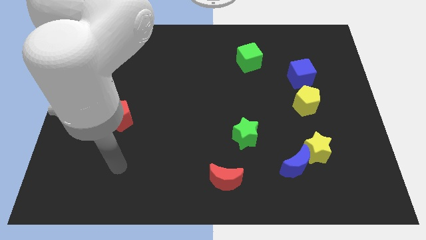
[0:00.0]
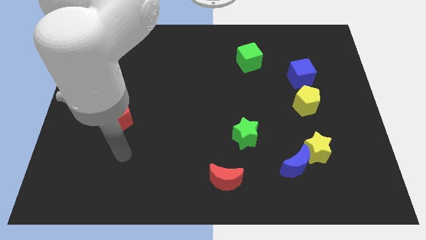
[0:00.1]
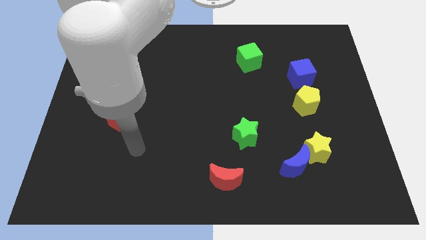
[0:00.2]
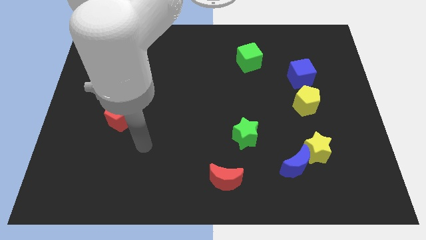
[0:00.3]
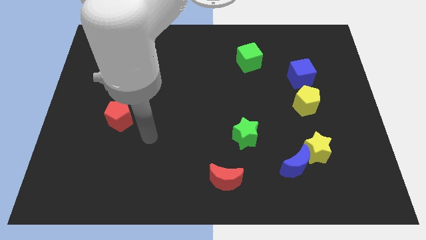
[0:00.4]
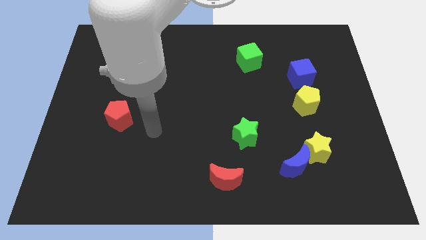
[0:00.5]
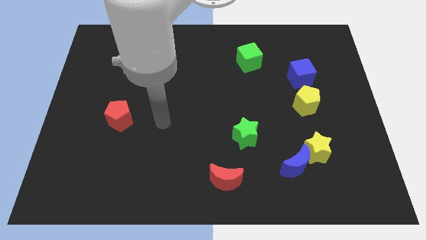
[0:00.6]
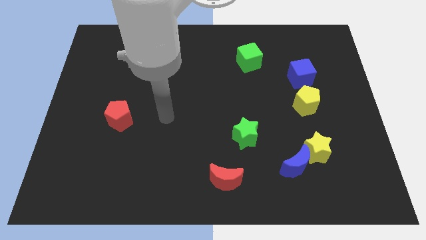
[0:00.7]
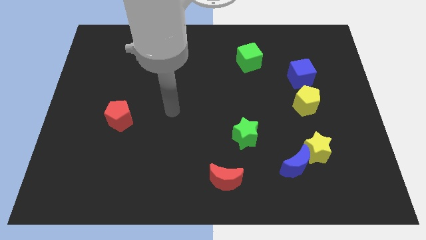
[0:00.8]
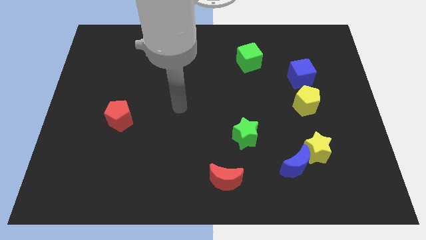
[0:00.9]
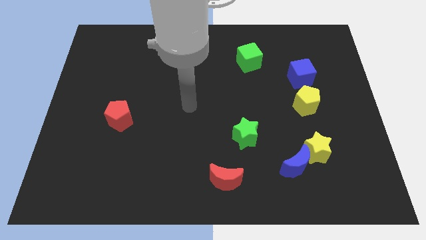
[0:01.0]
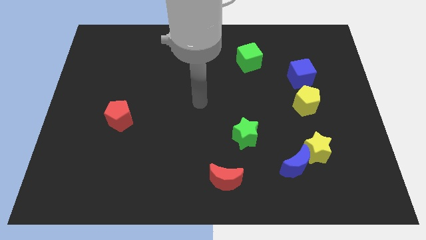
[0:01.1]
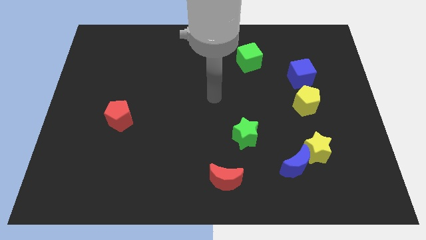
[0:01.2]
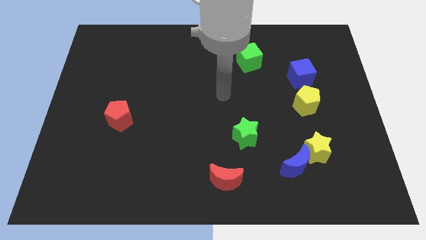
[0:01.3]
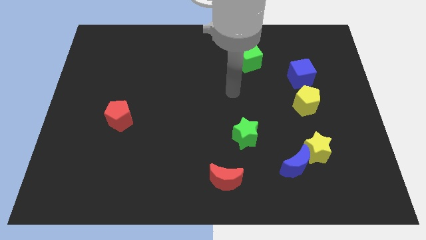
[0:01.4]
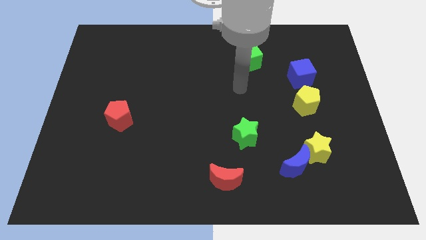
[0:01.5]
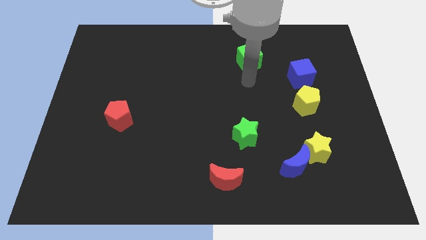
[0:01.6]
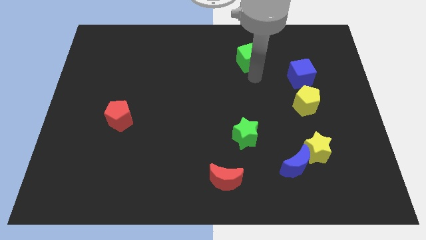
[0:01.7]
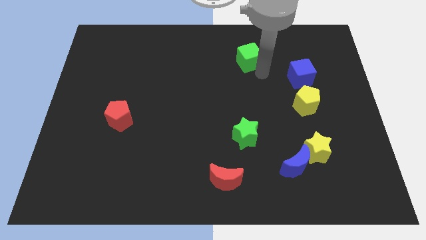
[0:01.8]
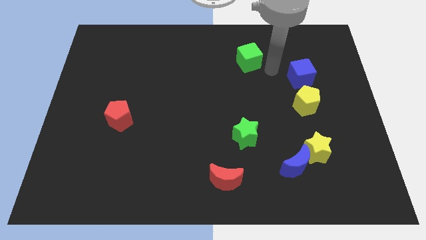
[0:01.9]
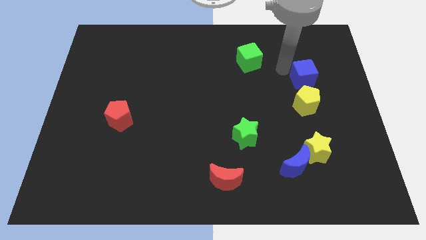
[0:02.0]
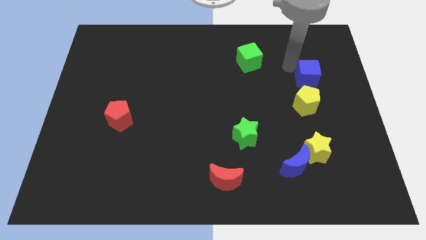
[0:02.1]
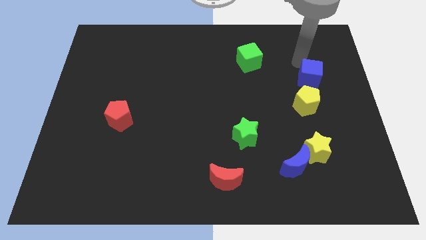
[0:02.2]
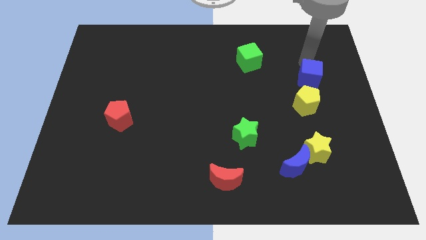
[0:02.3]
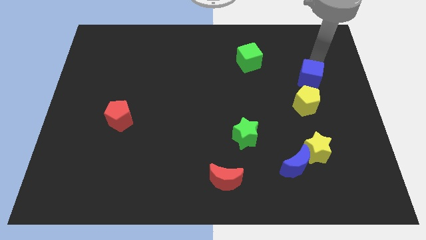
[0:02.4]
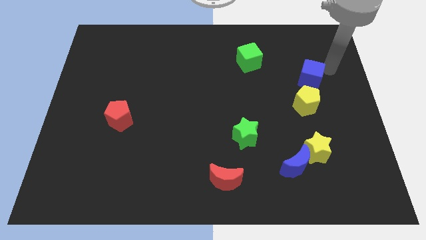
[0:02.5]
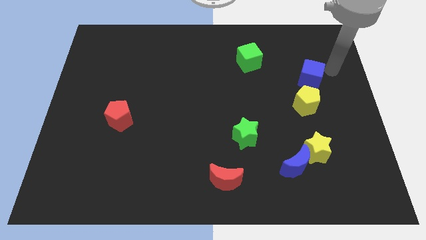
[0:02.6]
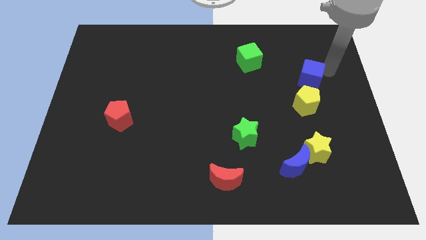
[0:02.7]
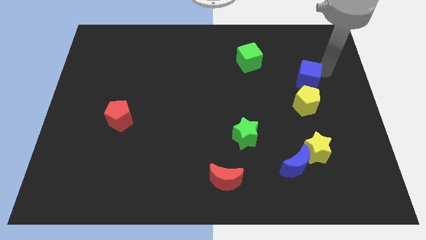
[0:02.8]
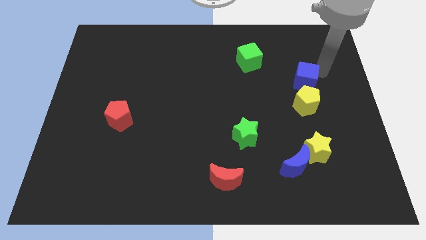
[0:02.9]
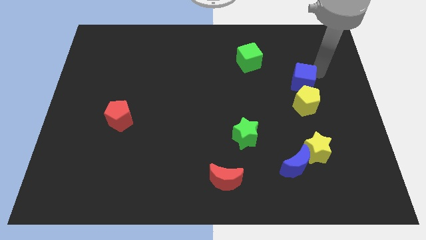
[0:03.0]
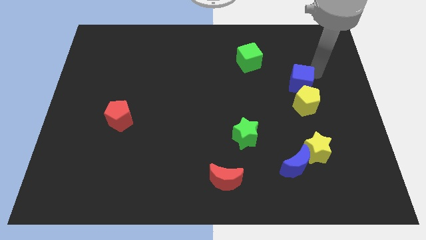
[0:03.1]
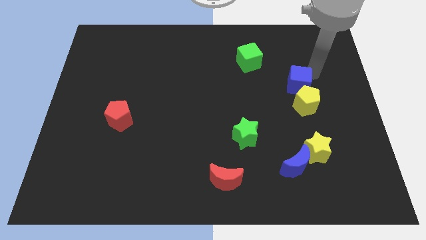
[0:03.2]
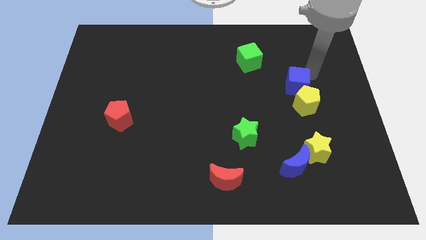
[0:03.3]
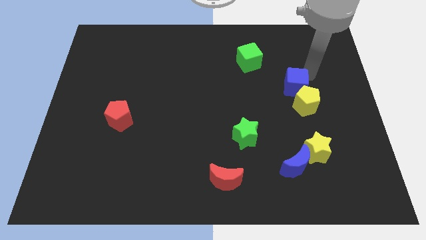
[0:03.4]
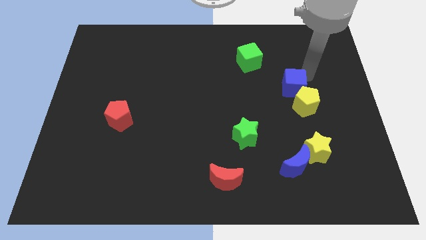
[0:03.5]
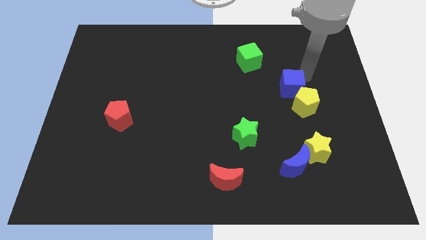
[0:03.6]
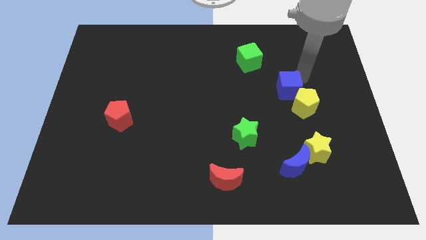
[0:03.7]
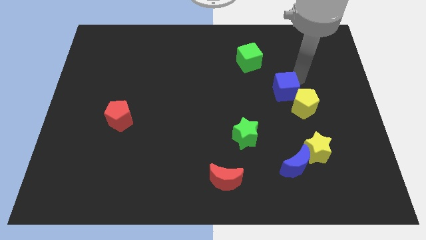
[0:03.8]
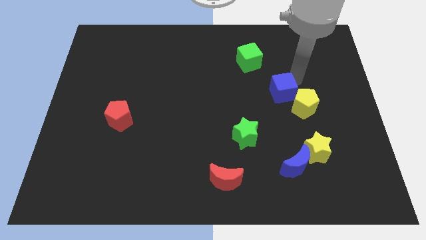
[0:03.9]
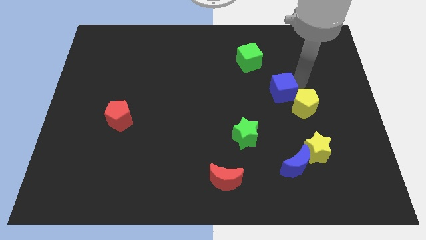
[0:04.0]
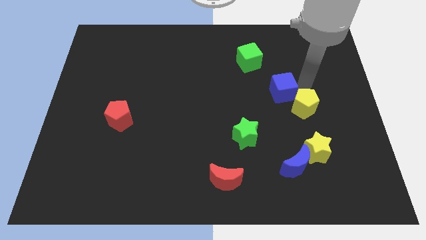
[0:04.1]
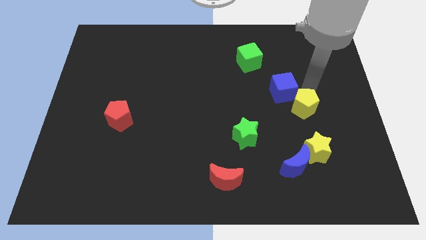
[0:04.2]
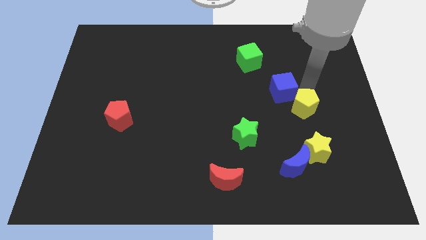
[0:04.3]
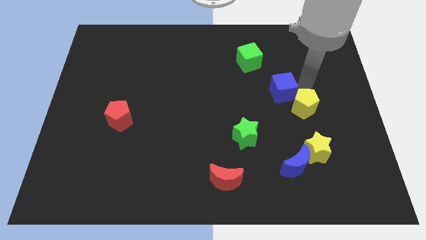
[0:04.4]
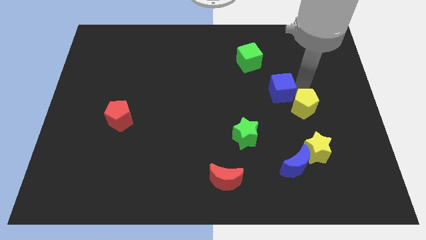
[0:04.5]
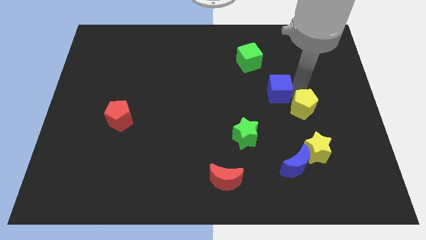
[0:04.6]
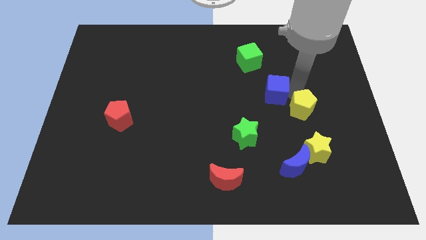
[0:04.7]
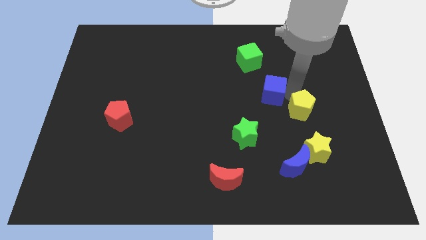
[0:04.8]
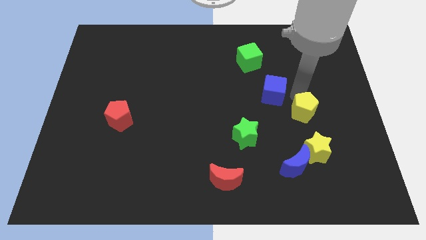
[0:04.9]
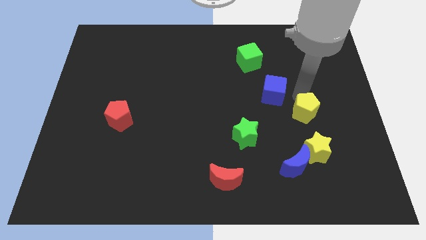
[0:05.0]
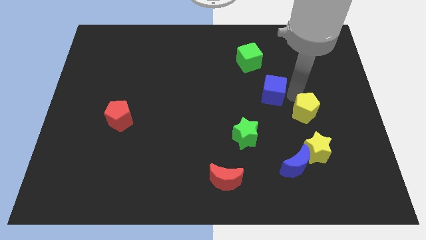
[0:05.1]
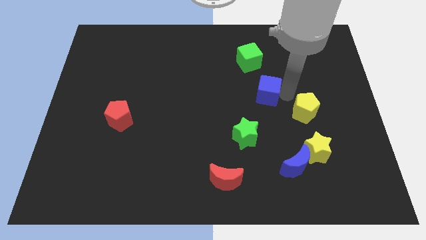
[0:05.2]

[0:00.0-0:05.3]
push the blue cube below the green cube

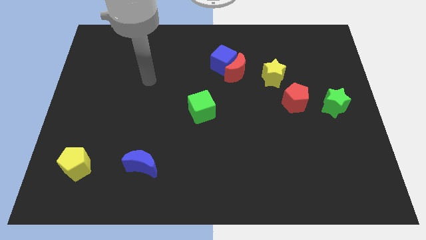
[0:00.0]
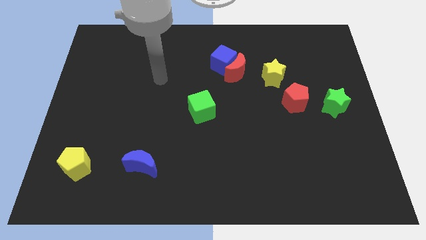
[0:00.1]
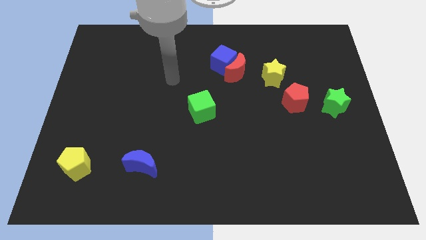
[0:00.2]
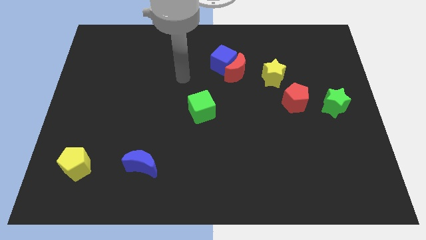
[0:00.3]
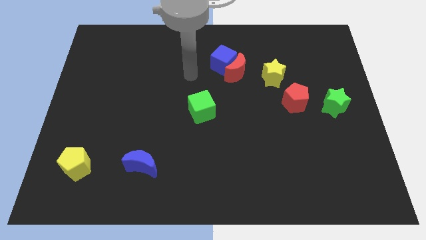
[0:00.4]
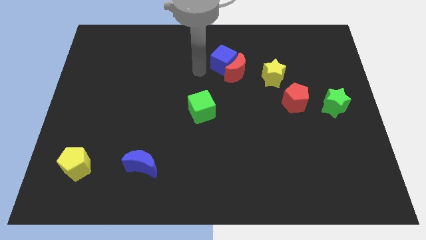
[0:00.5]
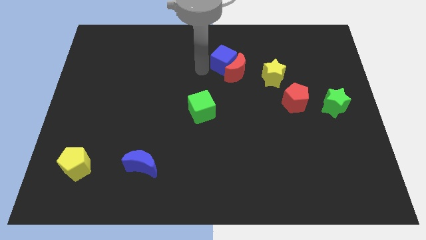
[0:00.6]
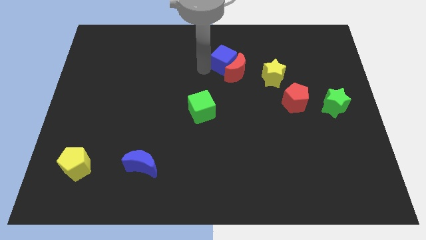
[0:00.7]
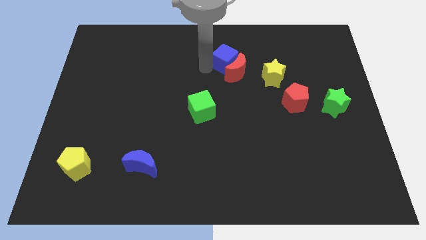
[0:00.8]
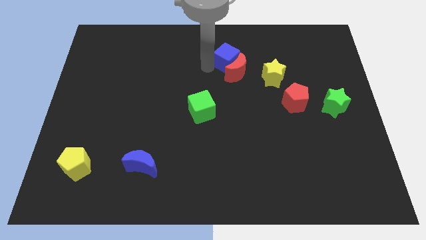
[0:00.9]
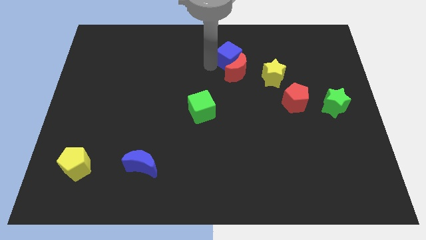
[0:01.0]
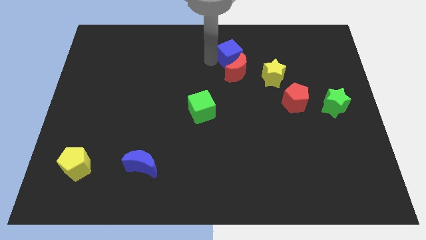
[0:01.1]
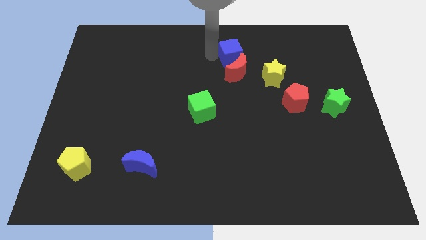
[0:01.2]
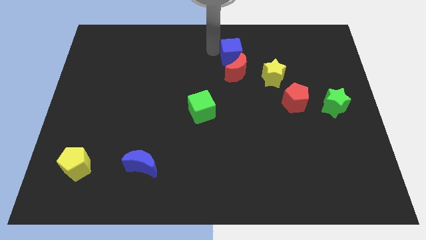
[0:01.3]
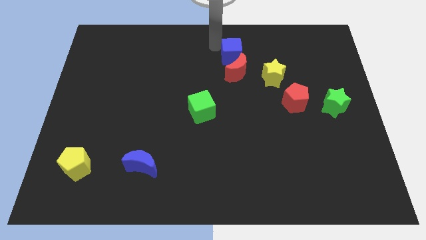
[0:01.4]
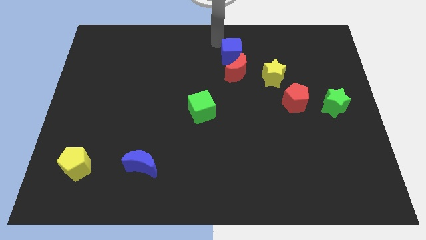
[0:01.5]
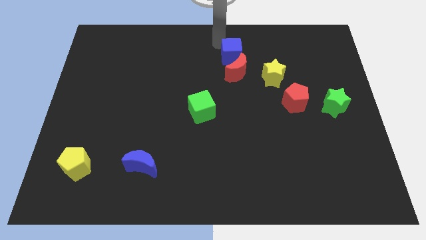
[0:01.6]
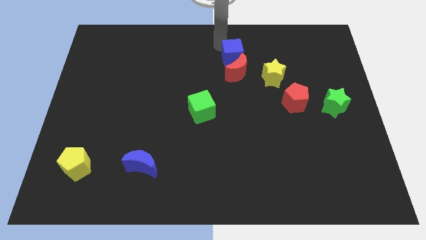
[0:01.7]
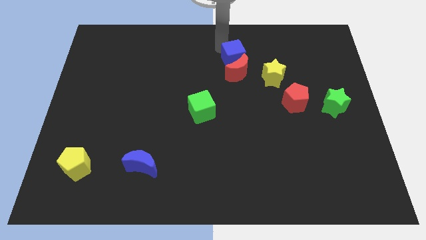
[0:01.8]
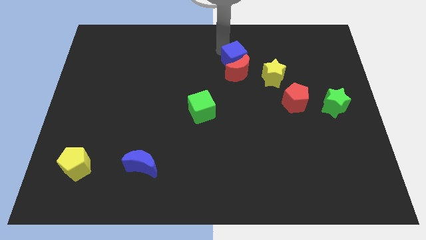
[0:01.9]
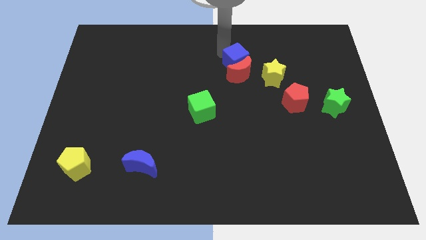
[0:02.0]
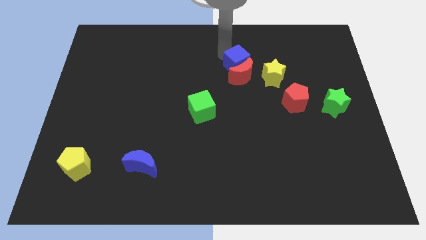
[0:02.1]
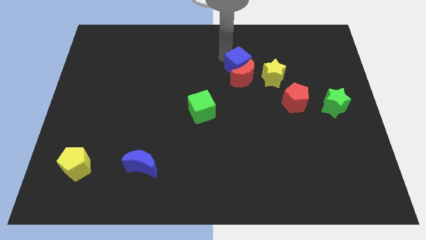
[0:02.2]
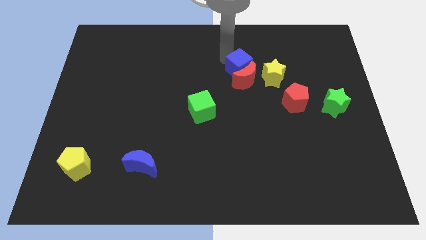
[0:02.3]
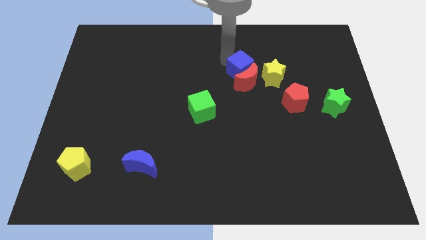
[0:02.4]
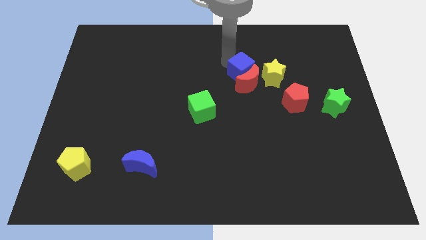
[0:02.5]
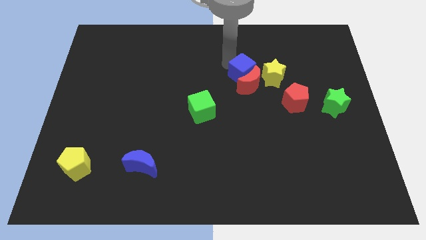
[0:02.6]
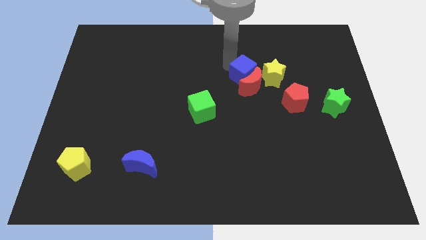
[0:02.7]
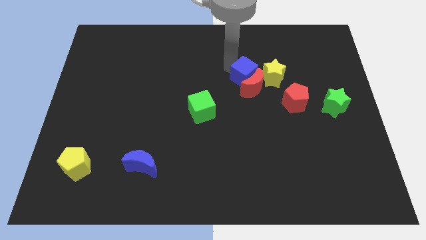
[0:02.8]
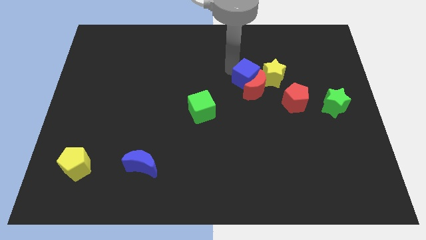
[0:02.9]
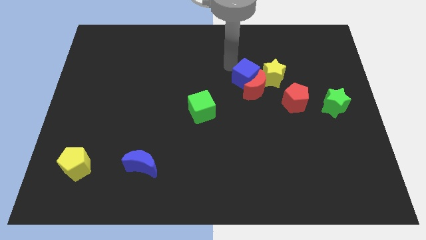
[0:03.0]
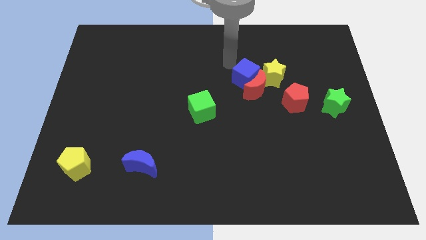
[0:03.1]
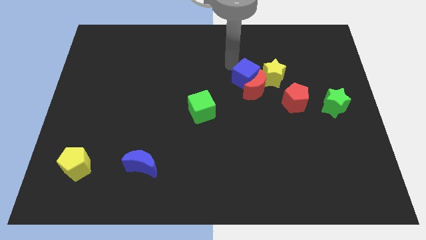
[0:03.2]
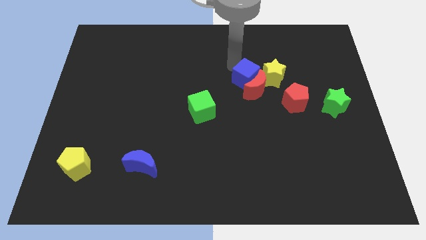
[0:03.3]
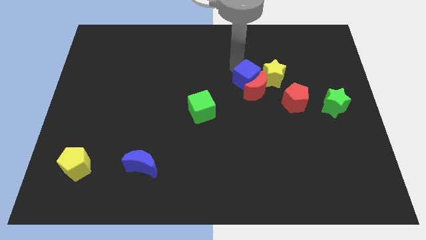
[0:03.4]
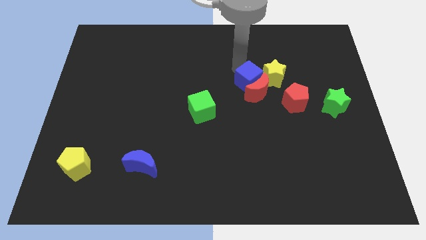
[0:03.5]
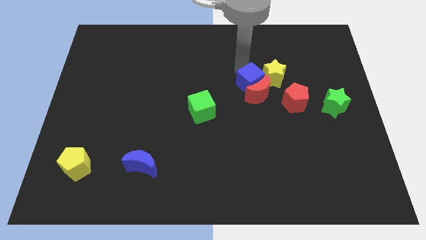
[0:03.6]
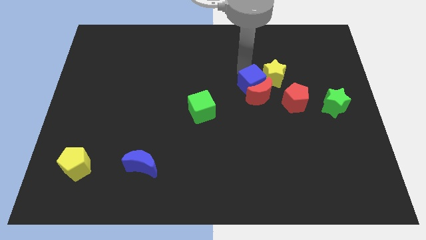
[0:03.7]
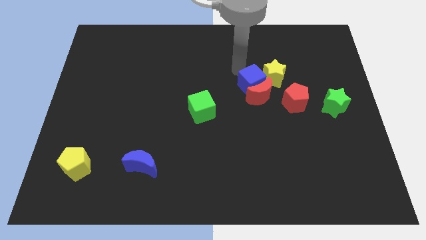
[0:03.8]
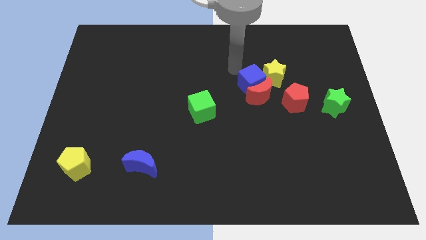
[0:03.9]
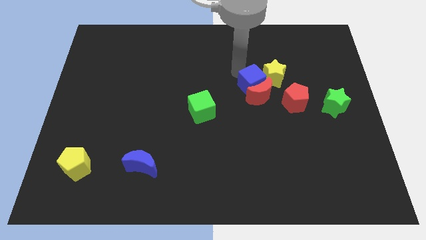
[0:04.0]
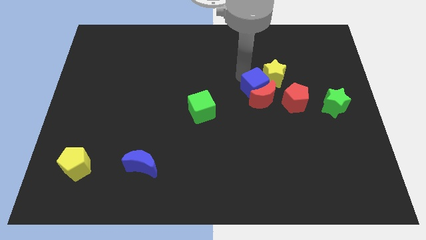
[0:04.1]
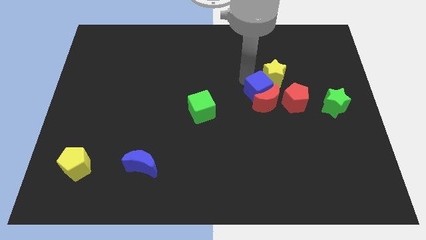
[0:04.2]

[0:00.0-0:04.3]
put the blue cube to the bottom side of the yellow star
